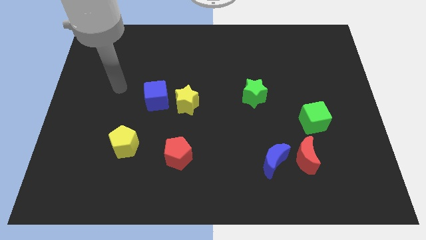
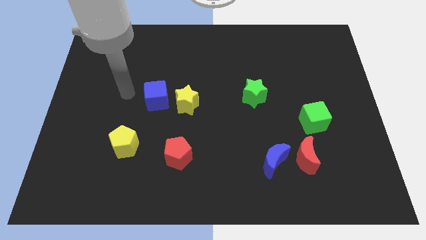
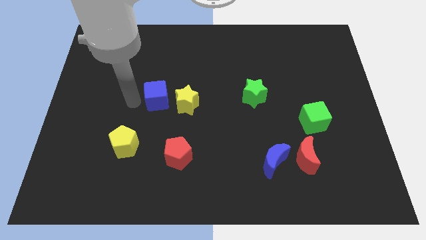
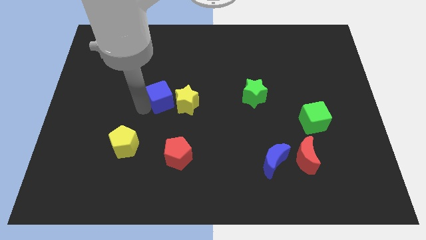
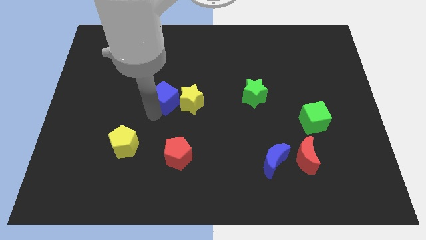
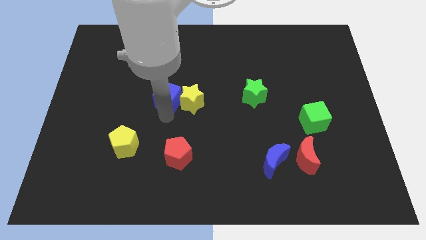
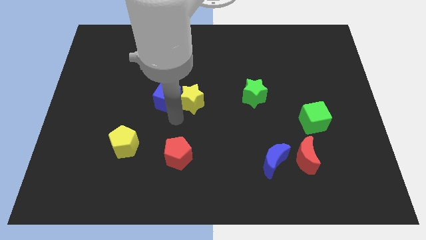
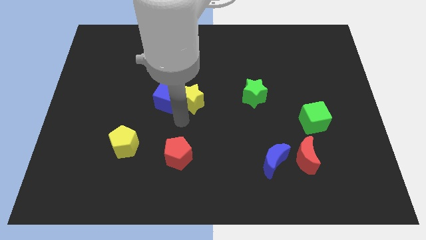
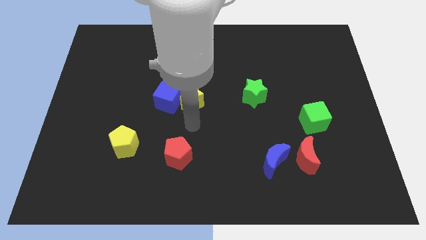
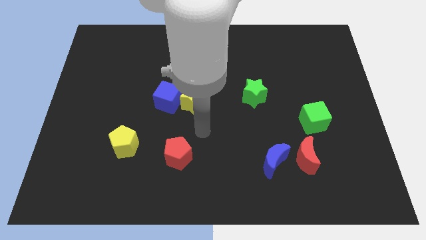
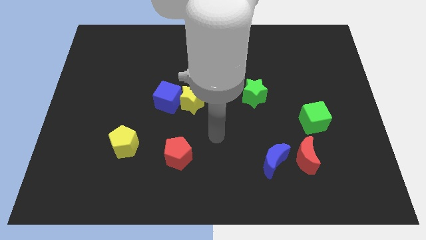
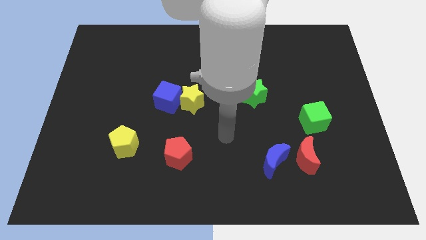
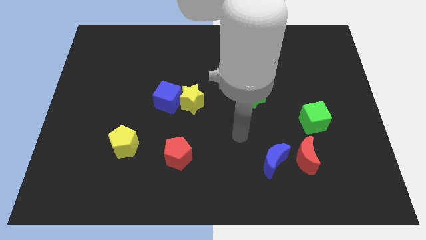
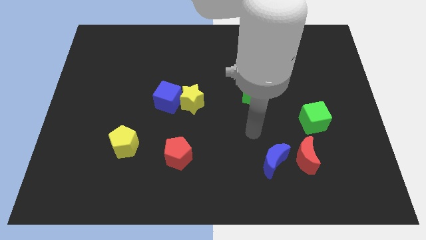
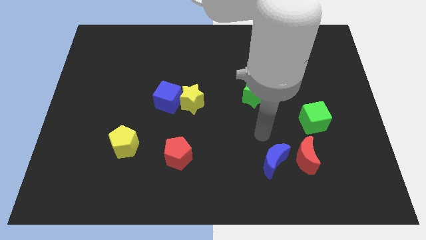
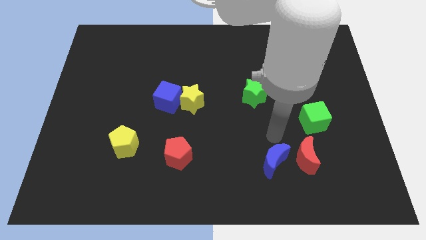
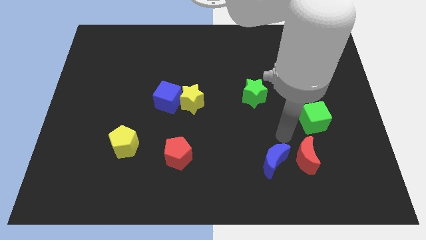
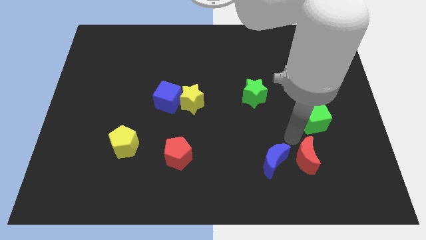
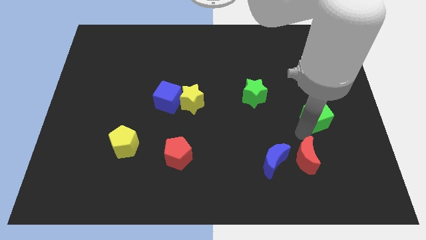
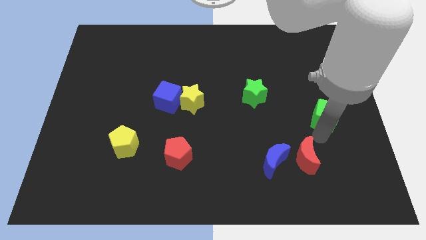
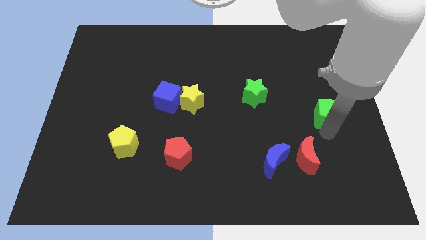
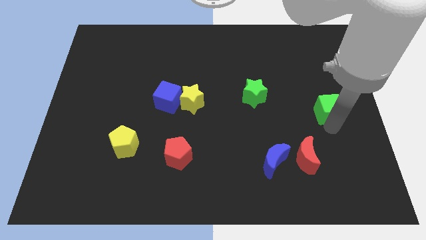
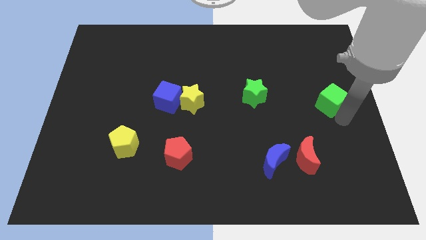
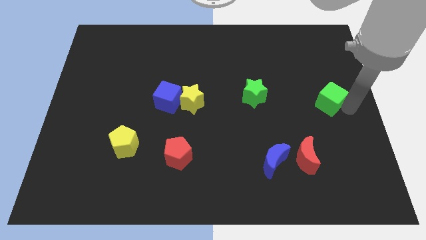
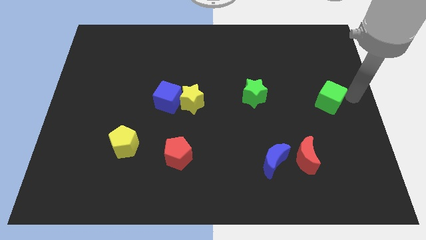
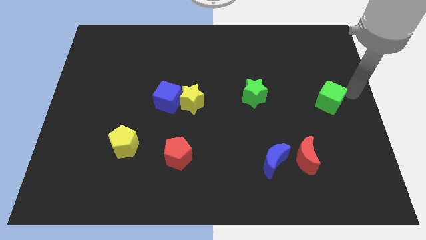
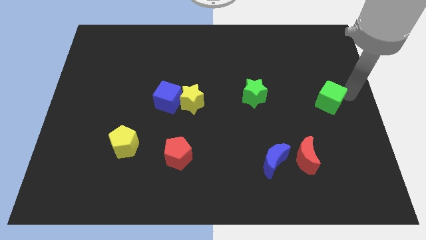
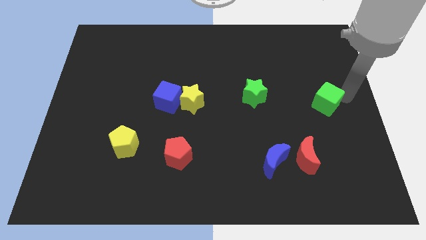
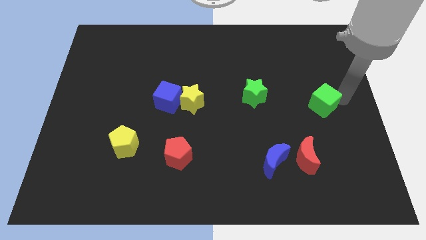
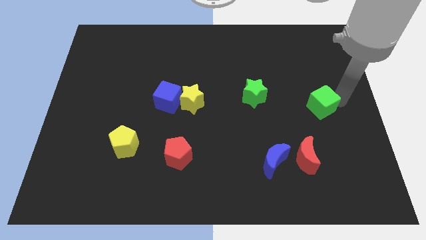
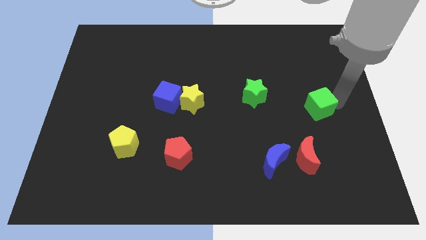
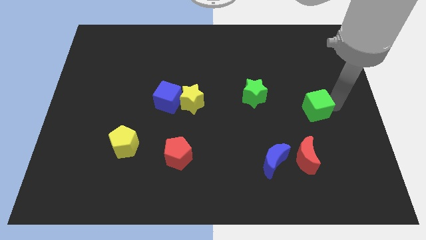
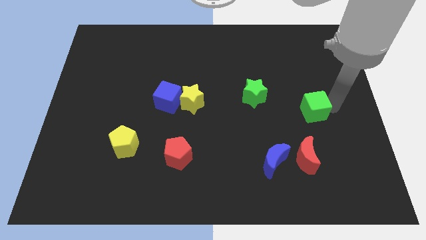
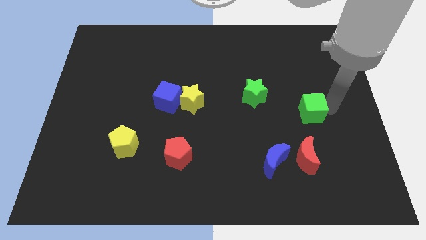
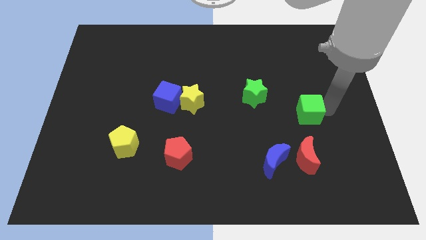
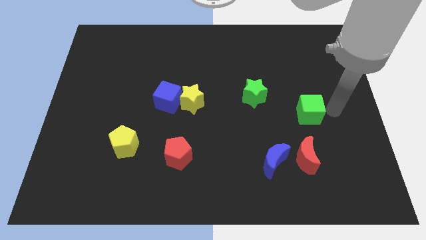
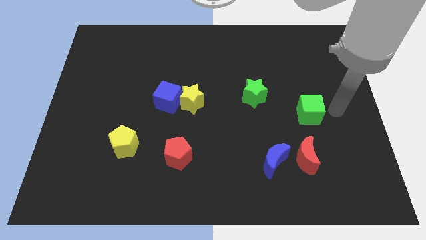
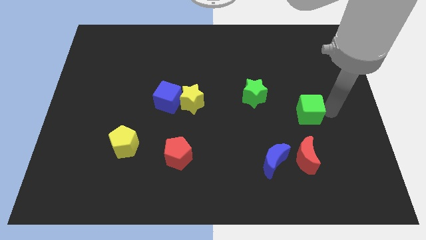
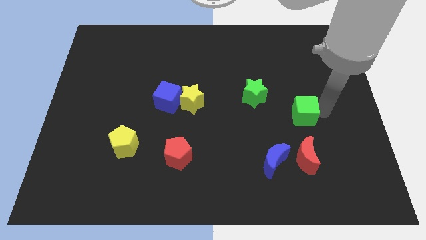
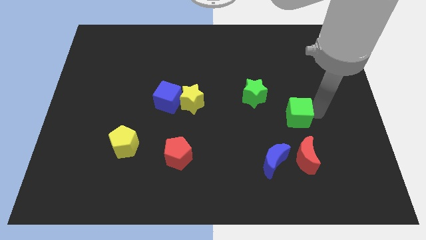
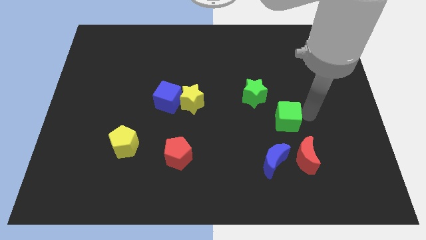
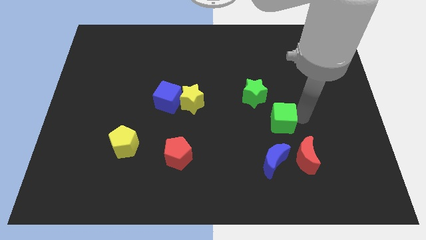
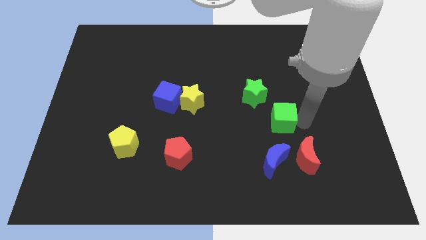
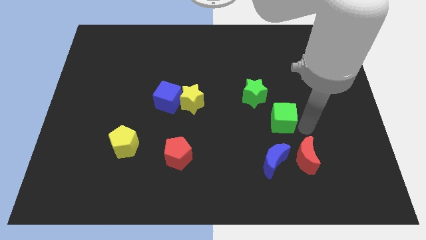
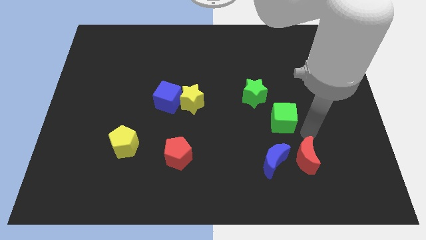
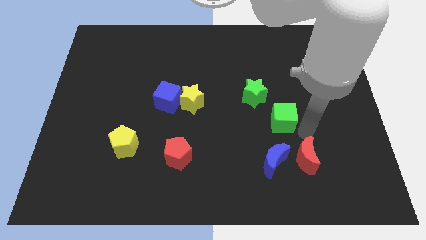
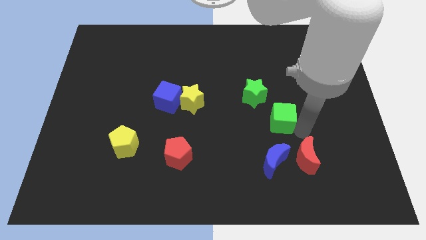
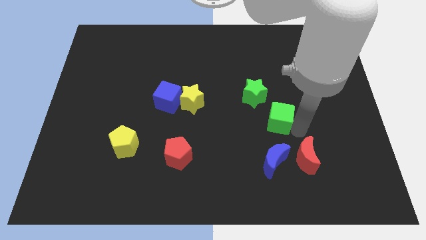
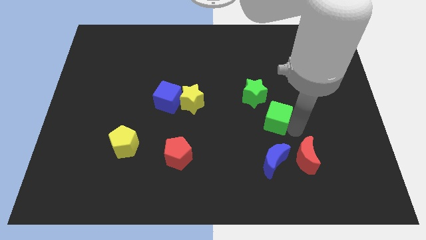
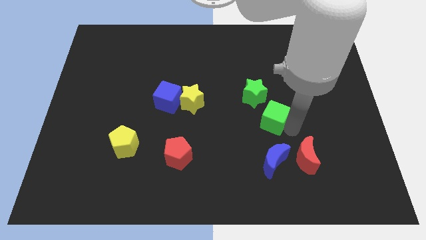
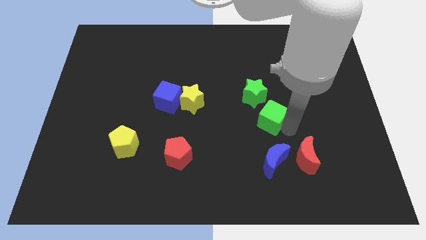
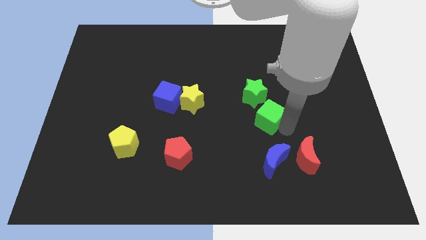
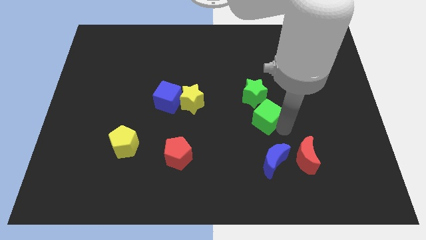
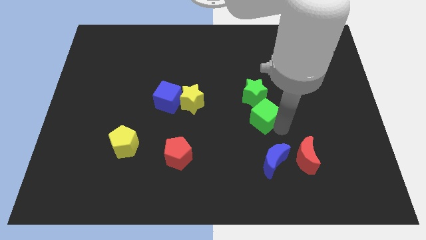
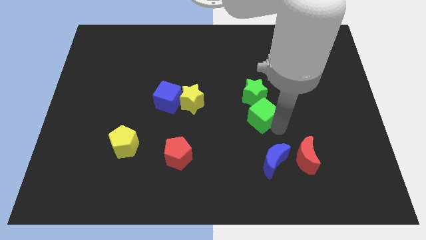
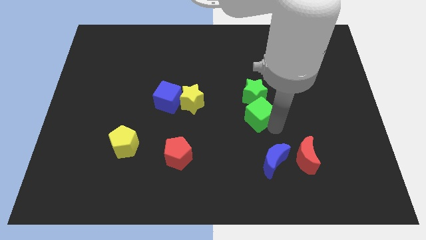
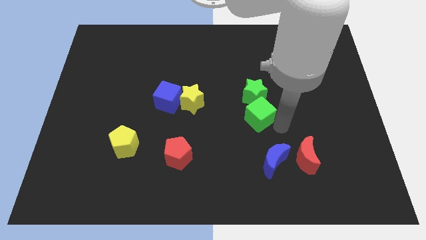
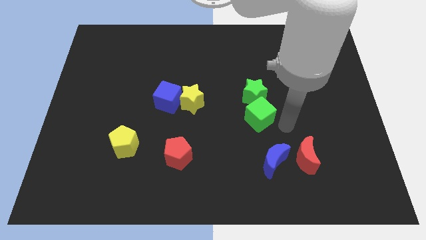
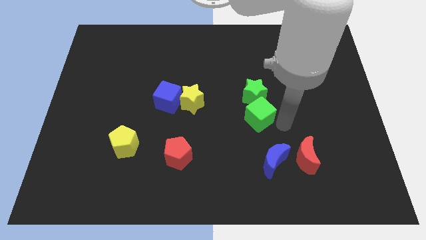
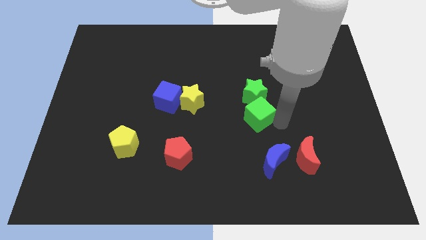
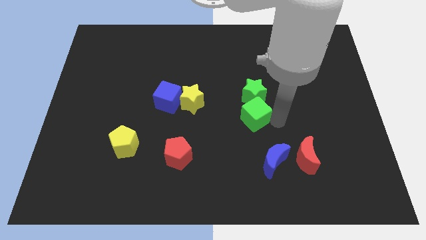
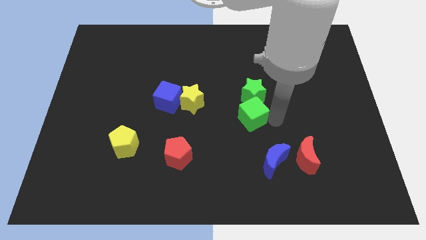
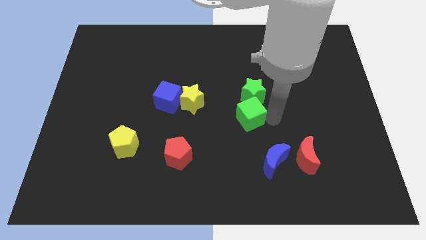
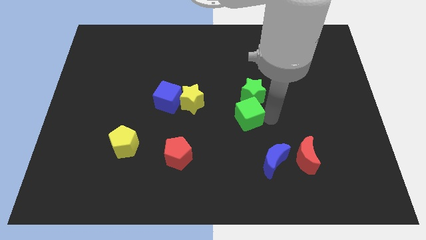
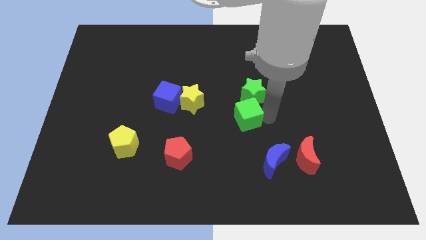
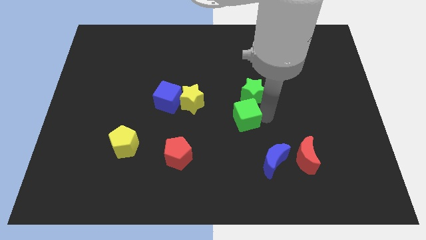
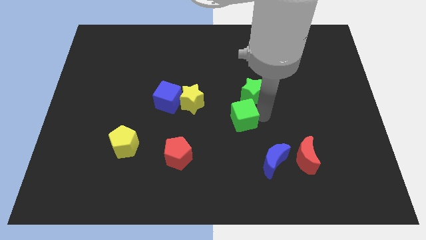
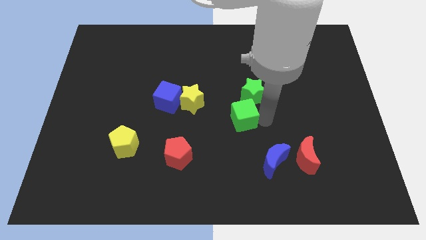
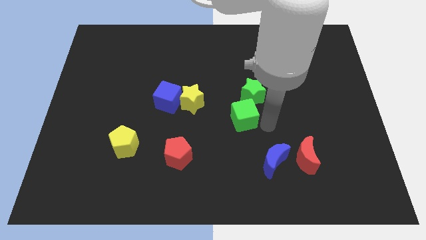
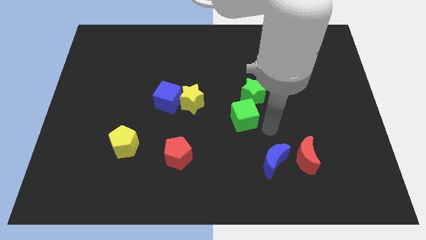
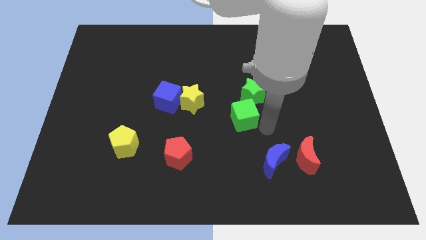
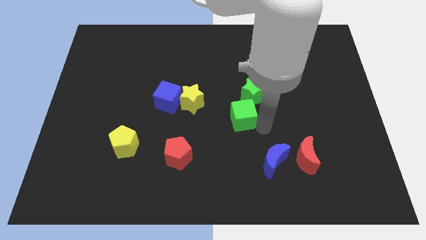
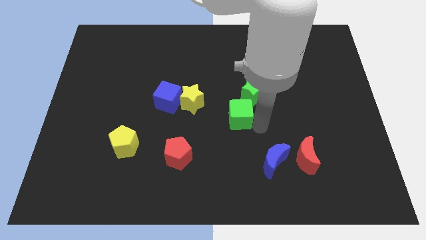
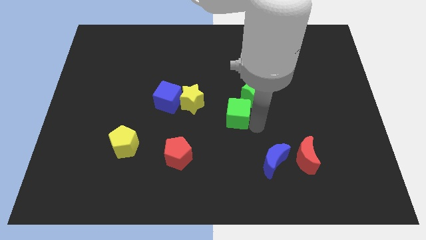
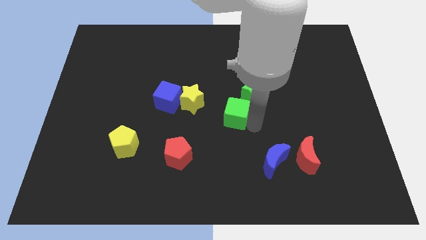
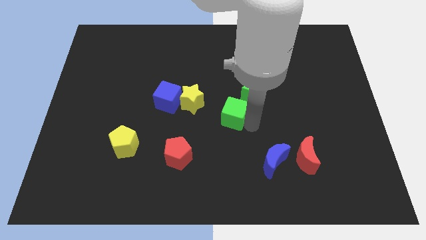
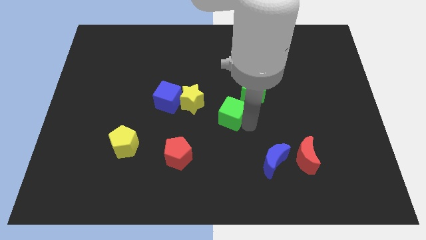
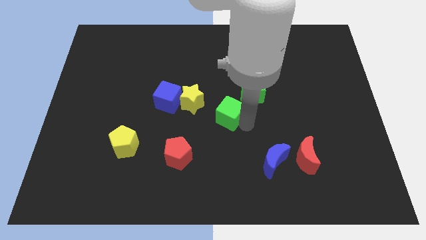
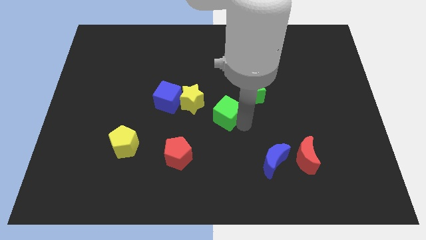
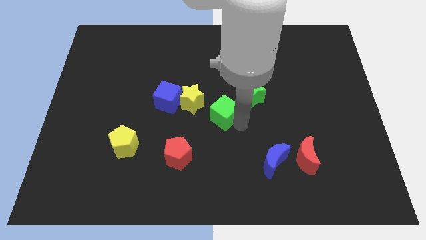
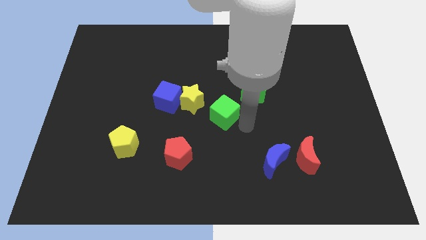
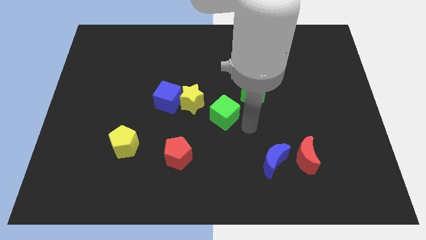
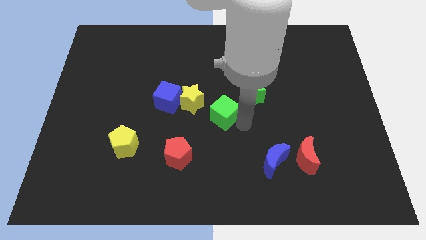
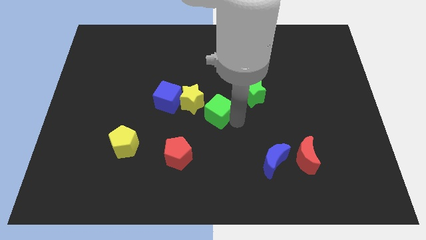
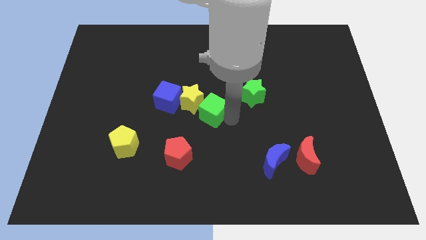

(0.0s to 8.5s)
slide the green cube next to the yellow star
